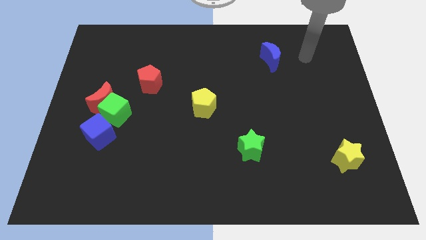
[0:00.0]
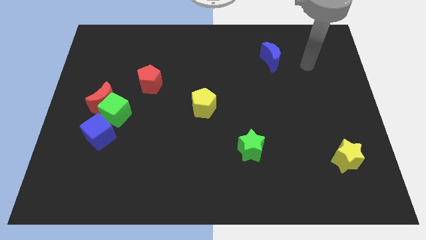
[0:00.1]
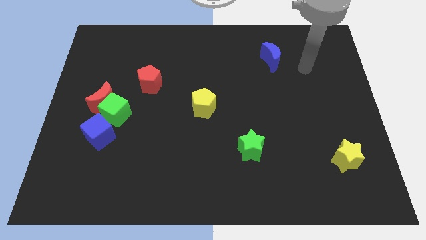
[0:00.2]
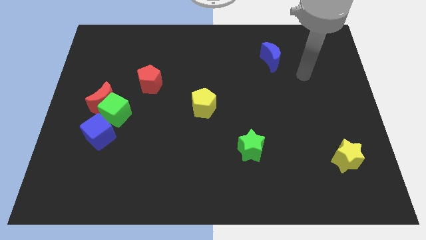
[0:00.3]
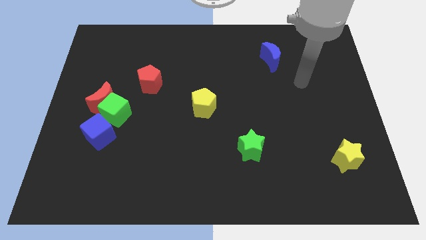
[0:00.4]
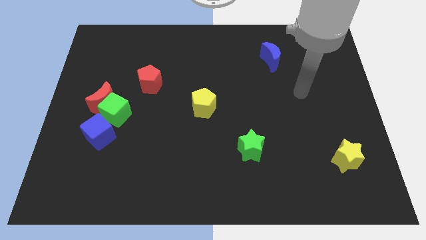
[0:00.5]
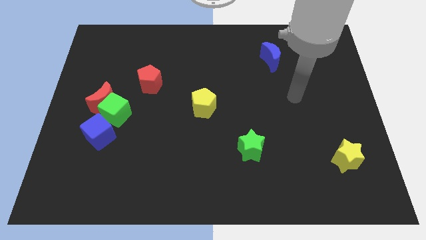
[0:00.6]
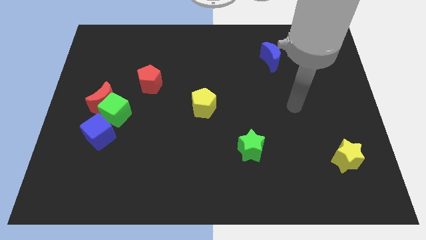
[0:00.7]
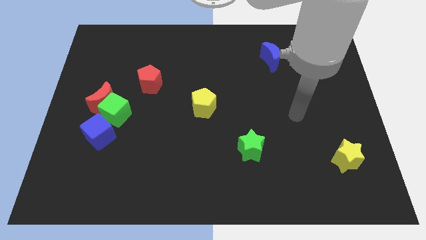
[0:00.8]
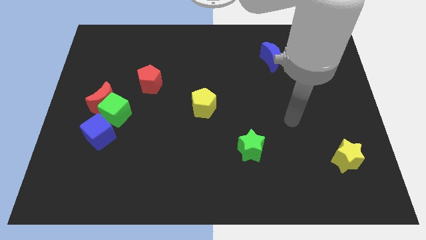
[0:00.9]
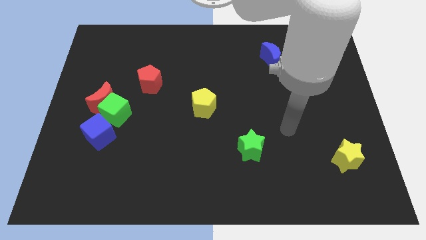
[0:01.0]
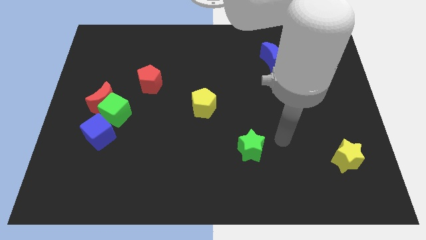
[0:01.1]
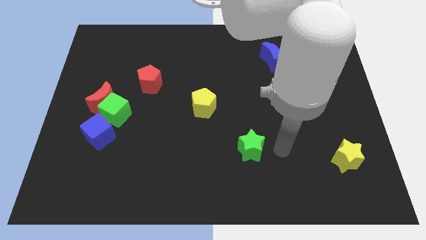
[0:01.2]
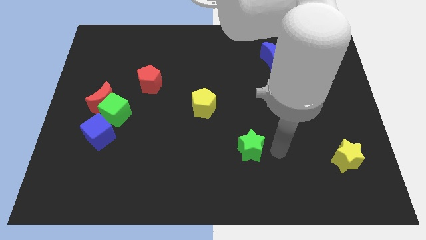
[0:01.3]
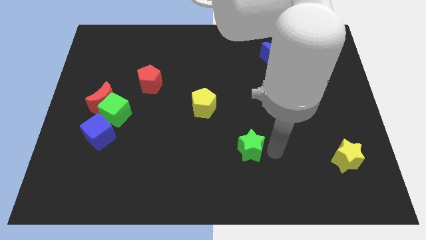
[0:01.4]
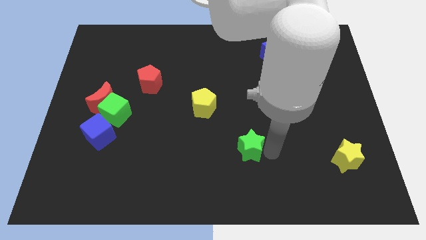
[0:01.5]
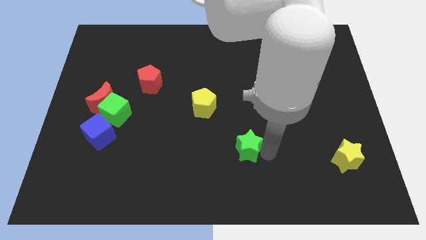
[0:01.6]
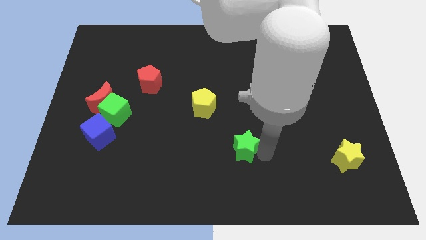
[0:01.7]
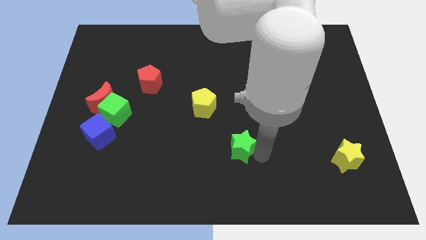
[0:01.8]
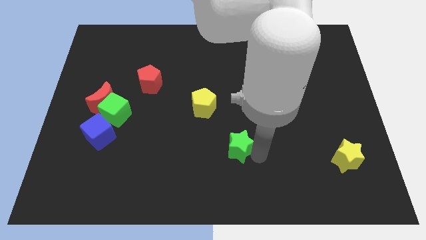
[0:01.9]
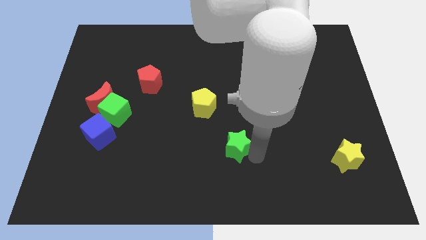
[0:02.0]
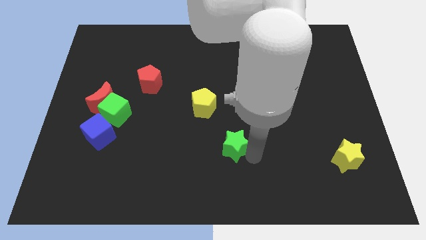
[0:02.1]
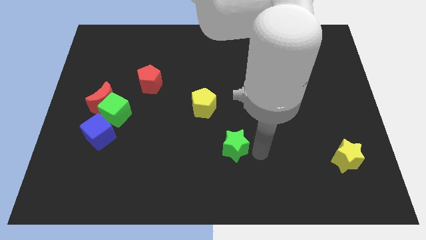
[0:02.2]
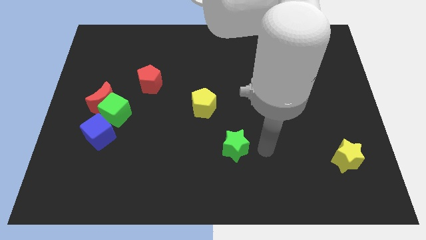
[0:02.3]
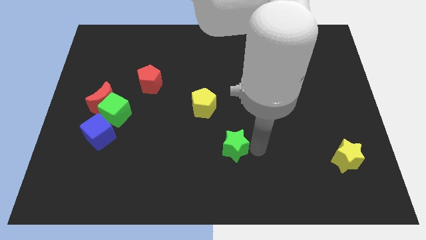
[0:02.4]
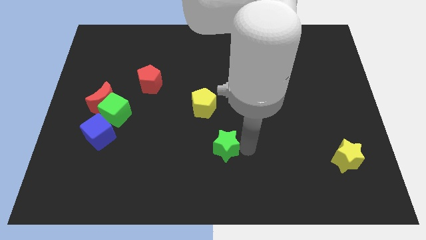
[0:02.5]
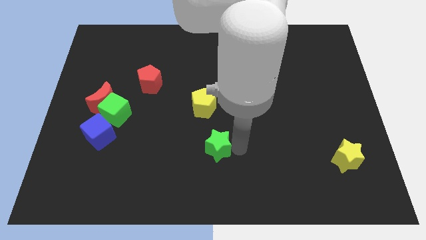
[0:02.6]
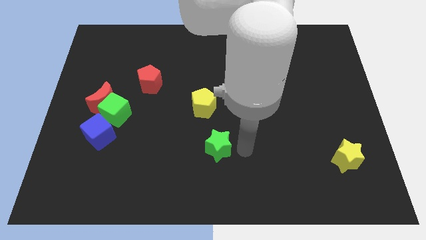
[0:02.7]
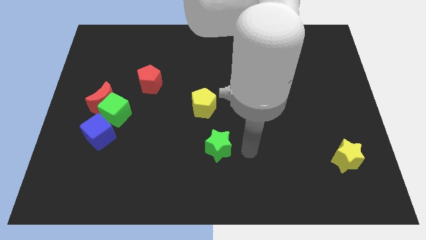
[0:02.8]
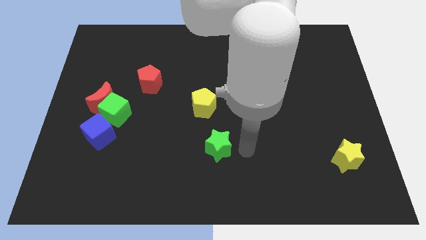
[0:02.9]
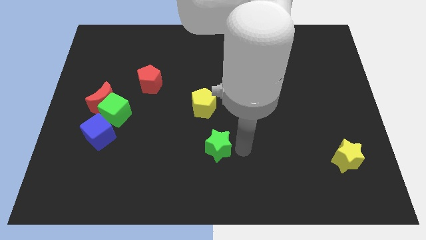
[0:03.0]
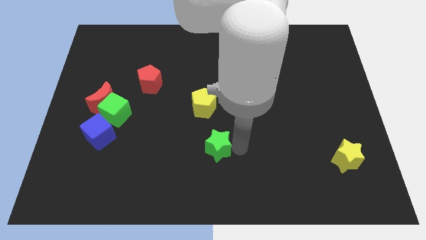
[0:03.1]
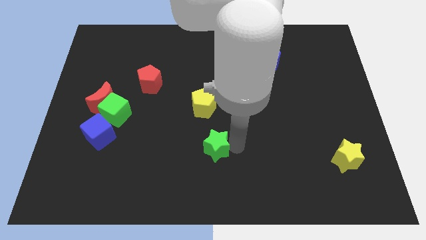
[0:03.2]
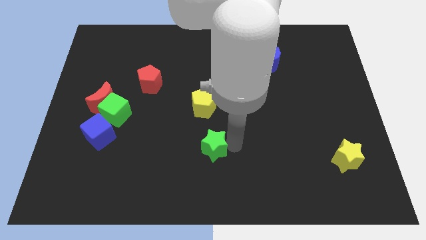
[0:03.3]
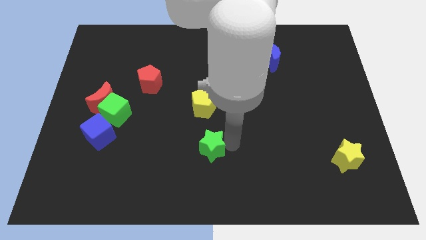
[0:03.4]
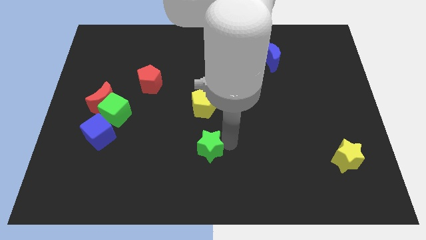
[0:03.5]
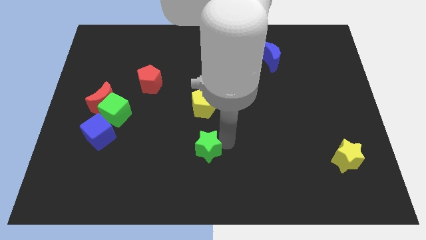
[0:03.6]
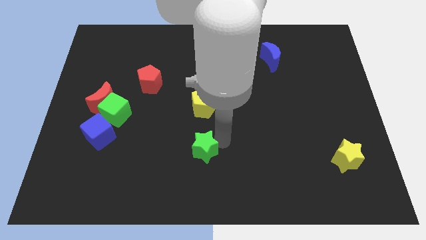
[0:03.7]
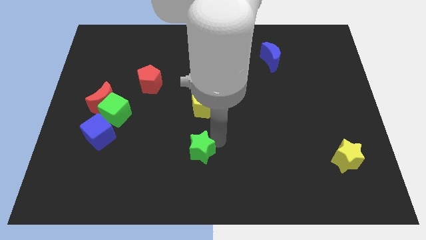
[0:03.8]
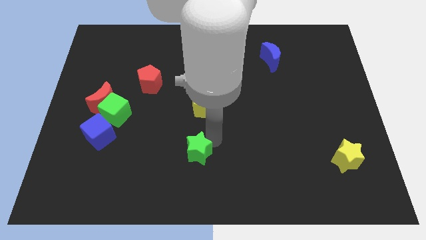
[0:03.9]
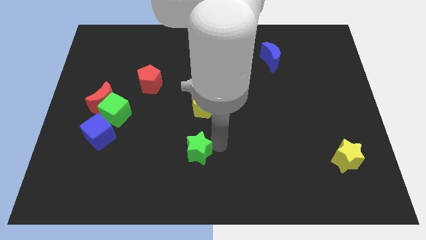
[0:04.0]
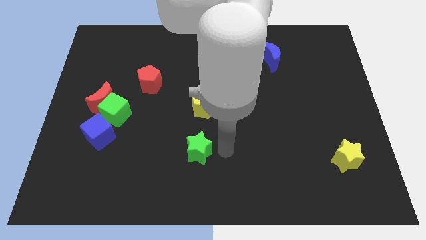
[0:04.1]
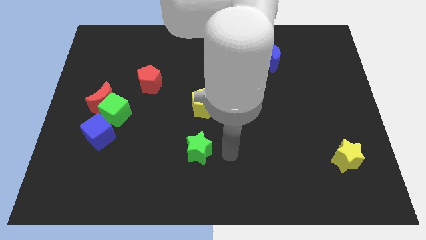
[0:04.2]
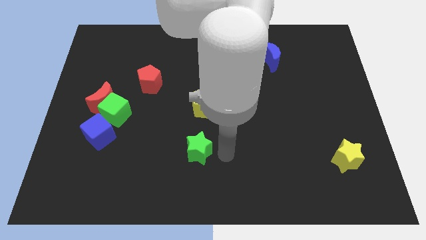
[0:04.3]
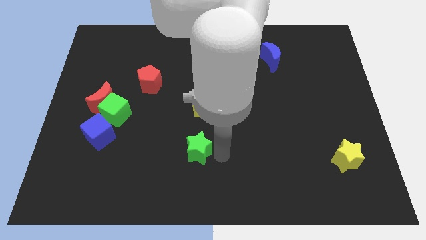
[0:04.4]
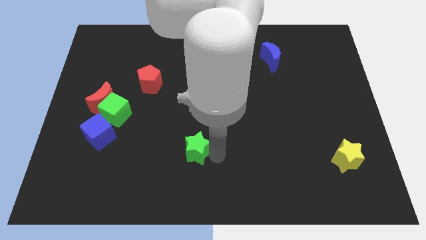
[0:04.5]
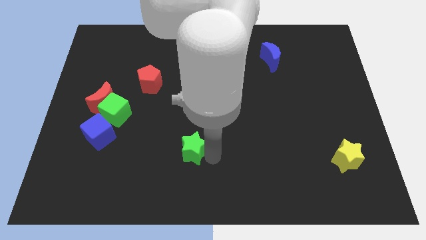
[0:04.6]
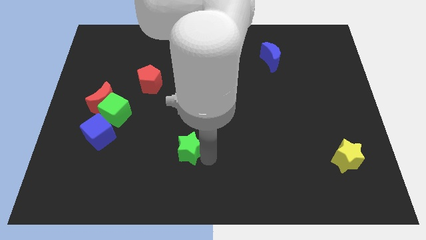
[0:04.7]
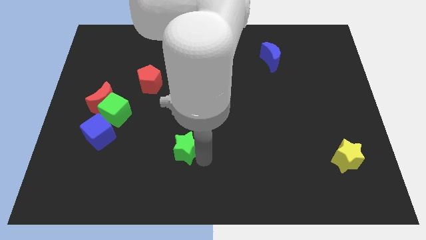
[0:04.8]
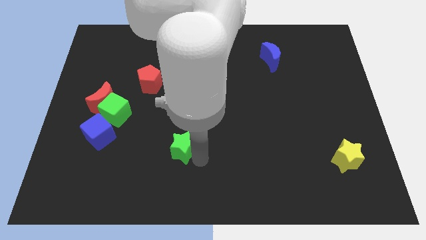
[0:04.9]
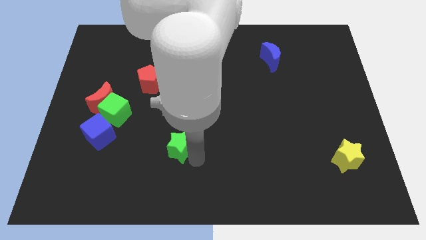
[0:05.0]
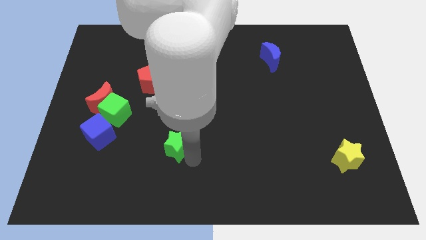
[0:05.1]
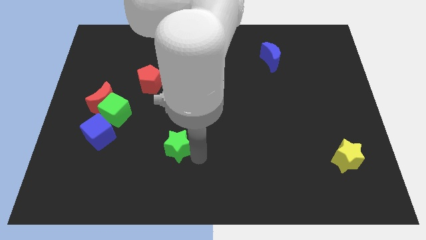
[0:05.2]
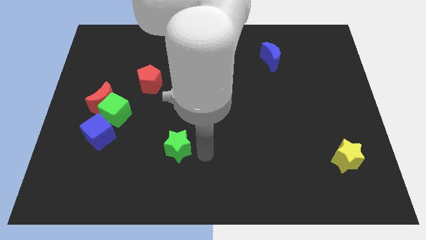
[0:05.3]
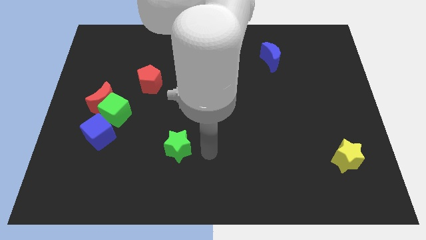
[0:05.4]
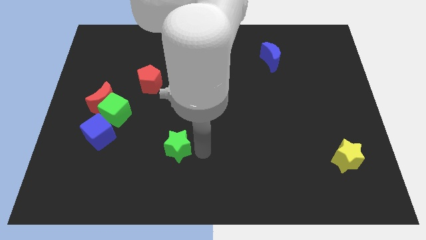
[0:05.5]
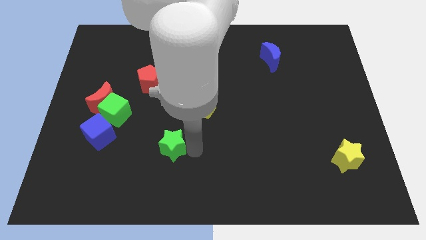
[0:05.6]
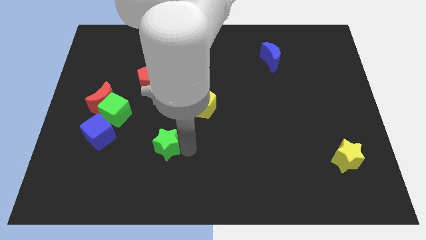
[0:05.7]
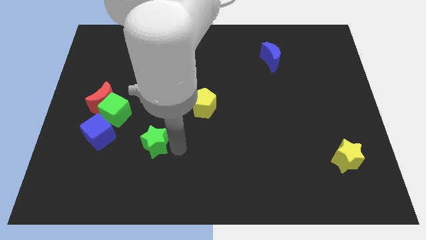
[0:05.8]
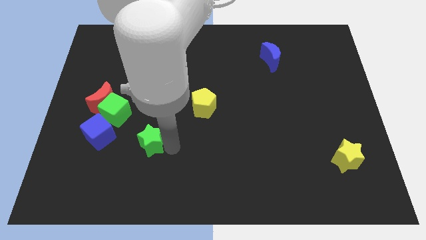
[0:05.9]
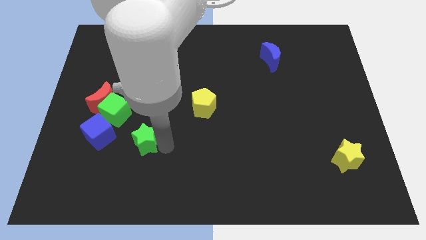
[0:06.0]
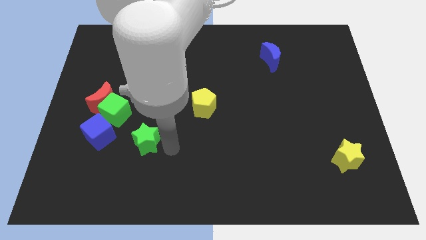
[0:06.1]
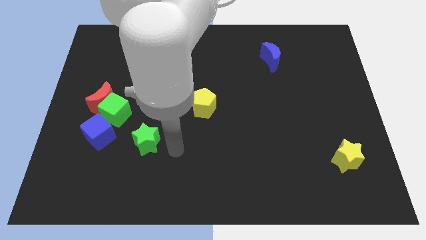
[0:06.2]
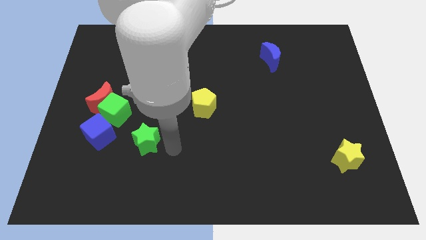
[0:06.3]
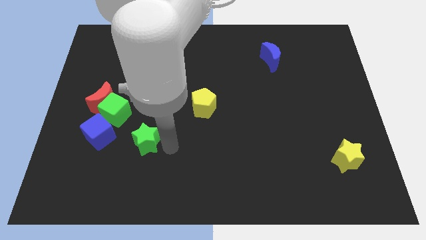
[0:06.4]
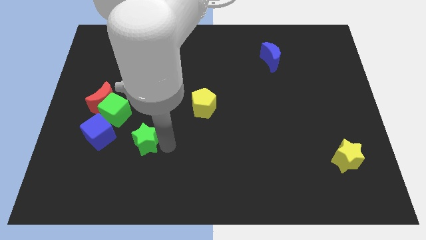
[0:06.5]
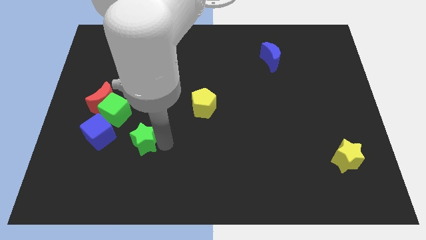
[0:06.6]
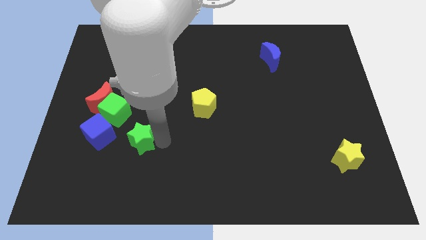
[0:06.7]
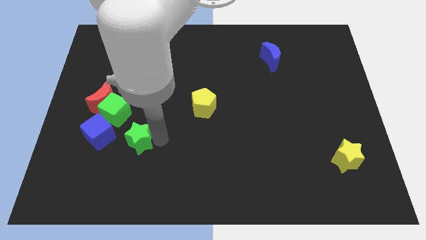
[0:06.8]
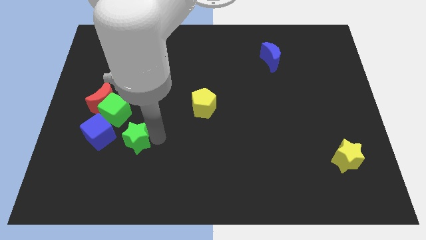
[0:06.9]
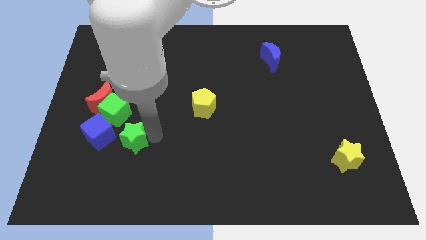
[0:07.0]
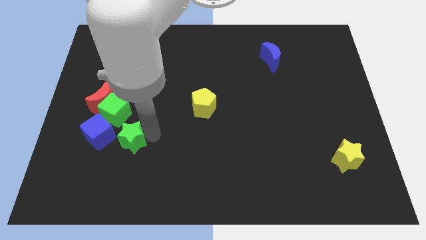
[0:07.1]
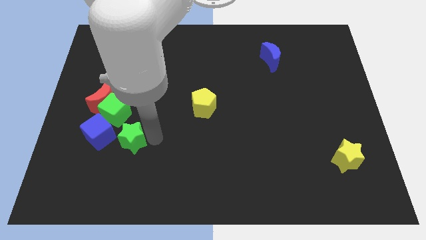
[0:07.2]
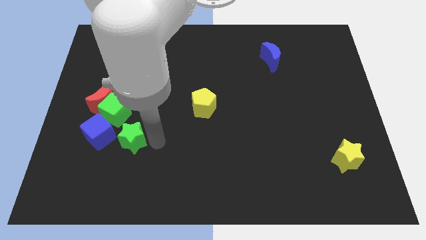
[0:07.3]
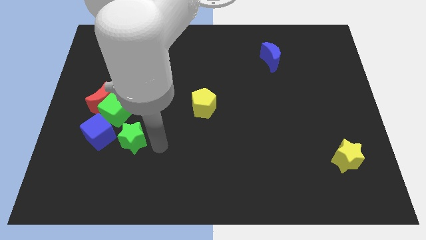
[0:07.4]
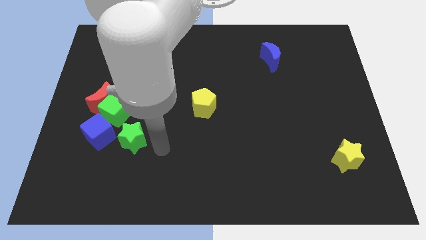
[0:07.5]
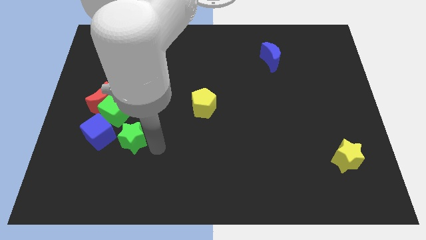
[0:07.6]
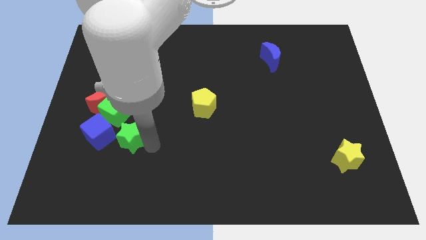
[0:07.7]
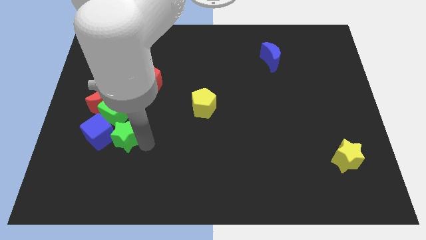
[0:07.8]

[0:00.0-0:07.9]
put the green star to the blue cube
